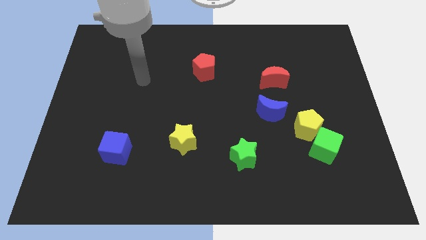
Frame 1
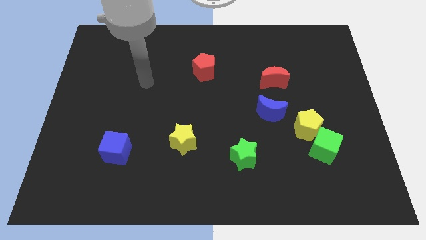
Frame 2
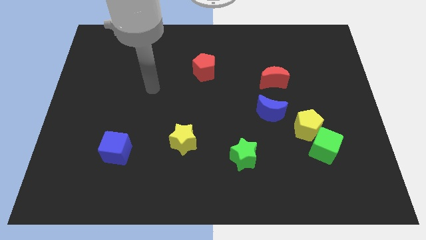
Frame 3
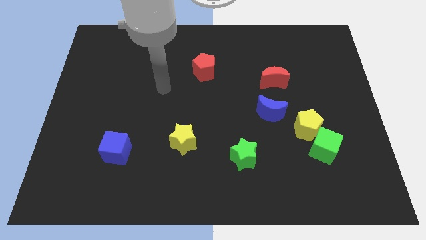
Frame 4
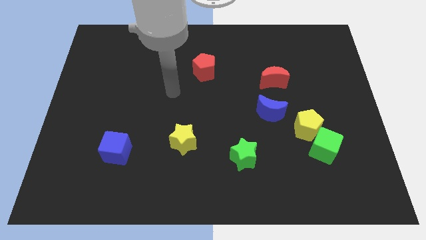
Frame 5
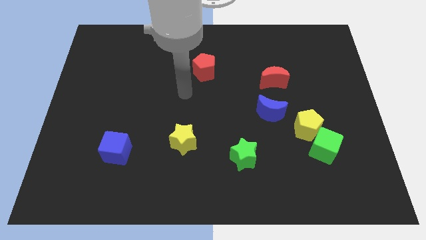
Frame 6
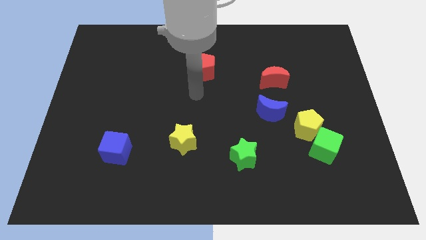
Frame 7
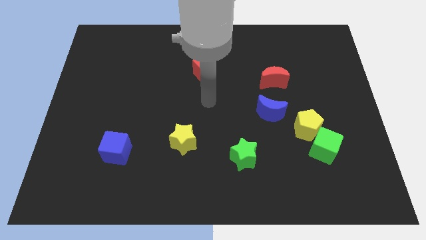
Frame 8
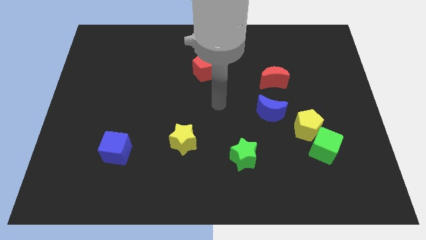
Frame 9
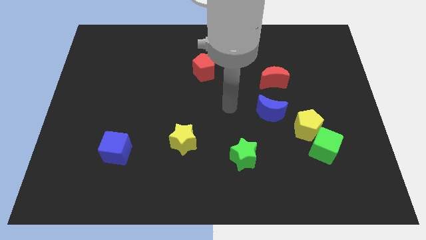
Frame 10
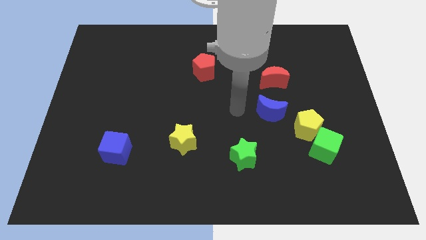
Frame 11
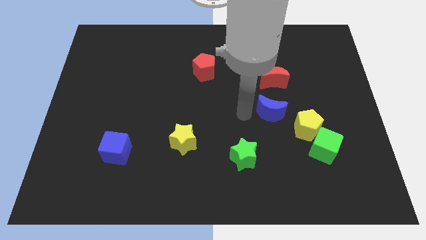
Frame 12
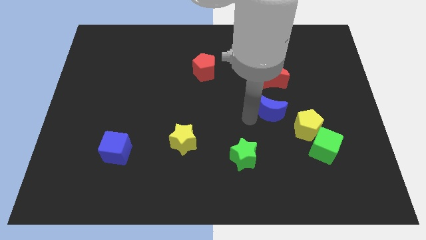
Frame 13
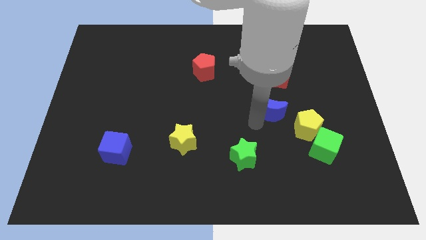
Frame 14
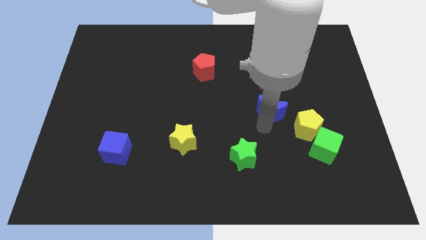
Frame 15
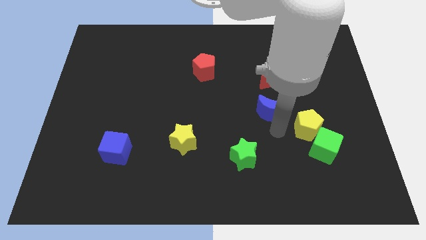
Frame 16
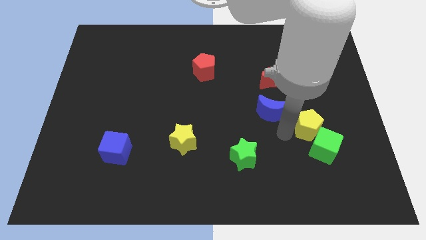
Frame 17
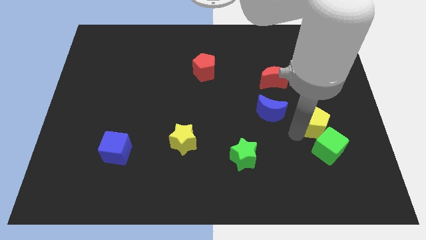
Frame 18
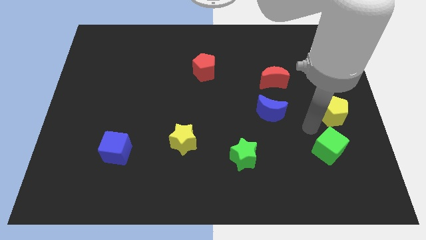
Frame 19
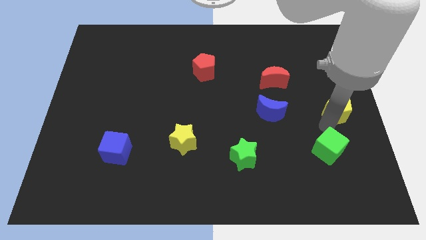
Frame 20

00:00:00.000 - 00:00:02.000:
move the green cube away from the yellow pentagon

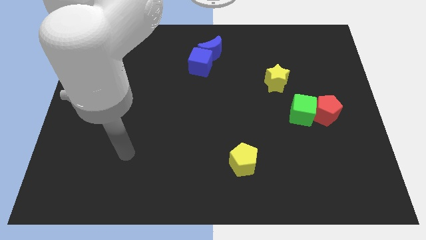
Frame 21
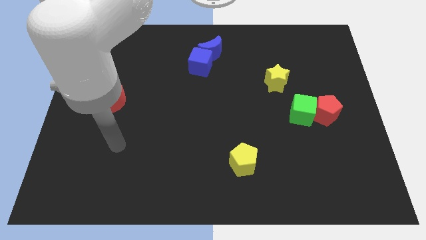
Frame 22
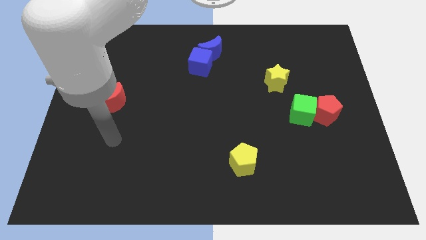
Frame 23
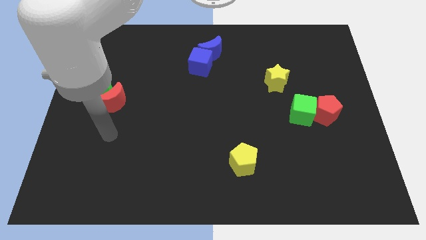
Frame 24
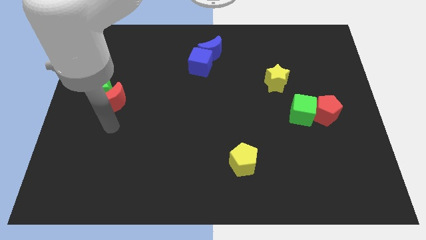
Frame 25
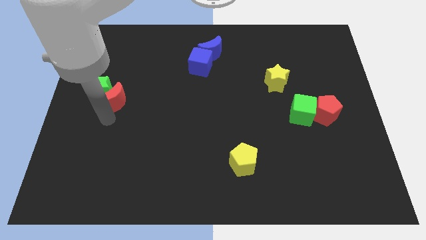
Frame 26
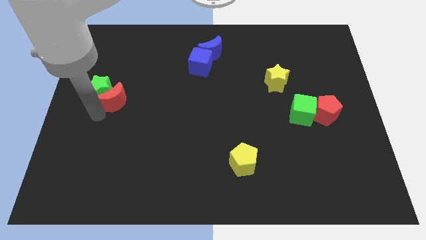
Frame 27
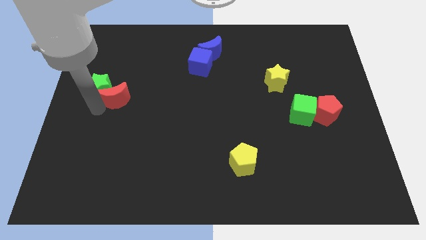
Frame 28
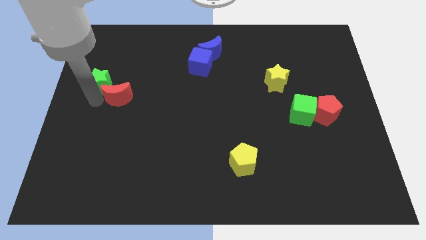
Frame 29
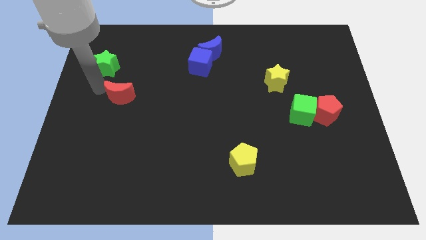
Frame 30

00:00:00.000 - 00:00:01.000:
pull the red moon apart from the green star

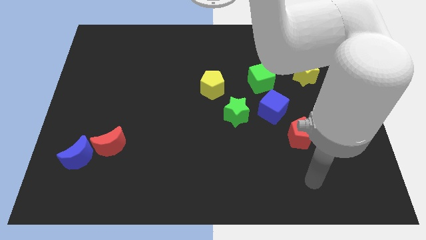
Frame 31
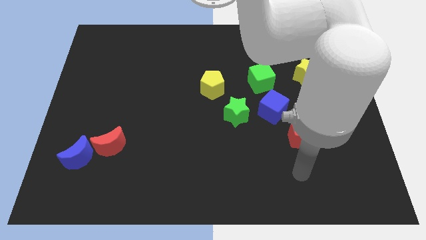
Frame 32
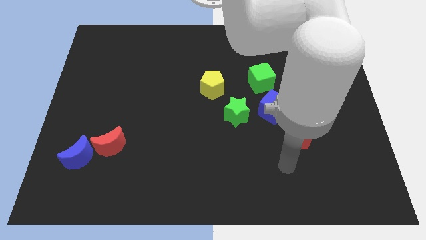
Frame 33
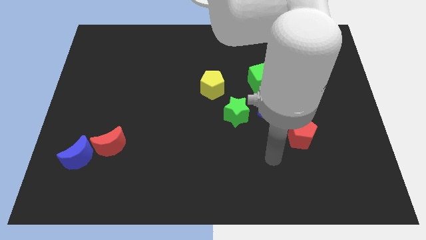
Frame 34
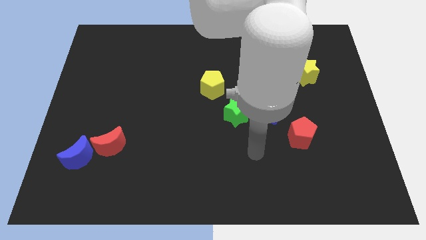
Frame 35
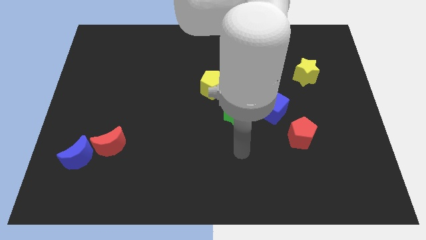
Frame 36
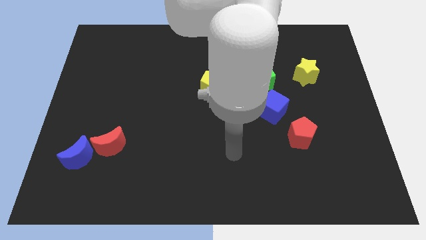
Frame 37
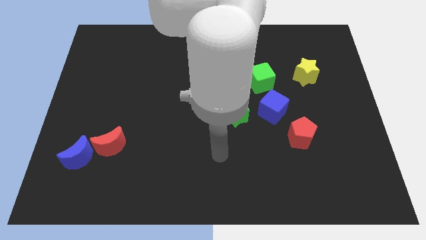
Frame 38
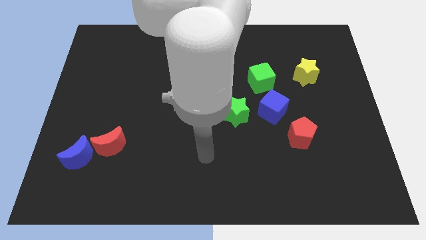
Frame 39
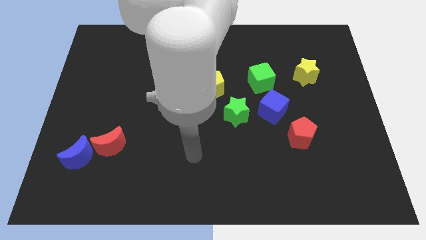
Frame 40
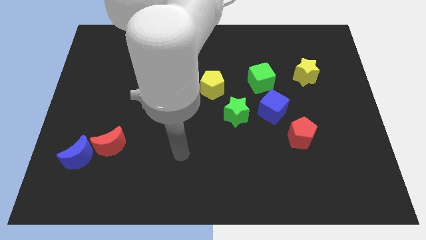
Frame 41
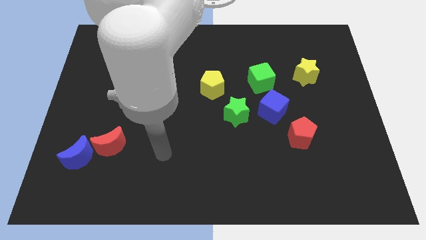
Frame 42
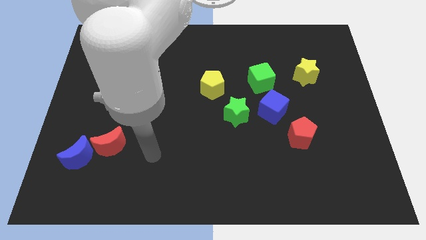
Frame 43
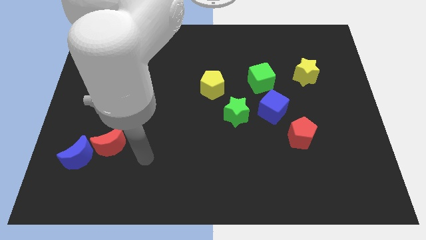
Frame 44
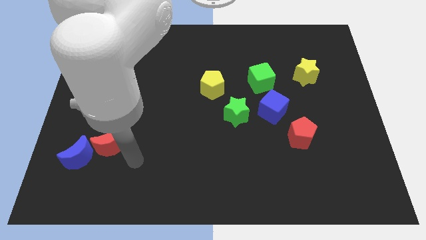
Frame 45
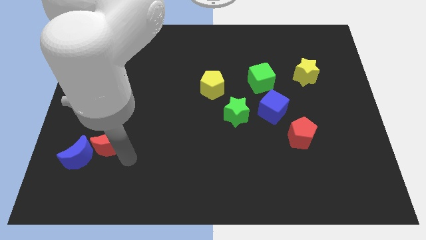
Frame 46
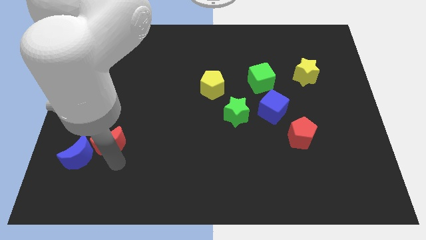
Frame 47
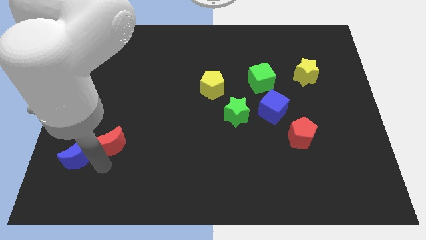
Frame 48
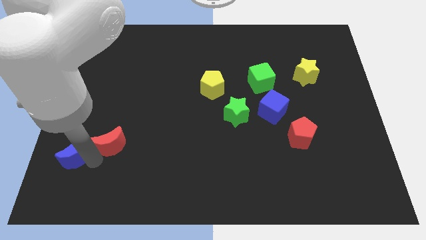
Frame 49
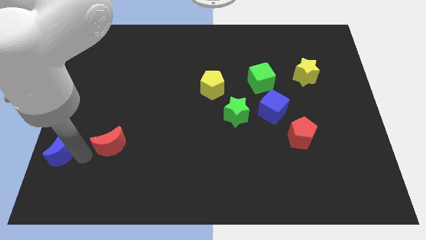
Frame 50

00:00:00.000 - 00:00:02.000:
separate the red moon from the blue moon

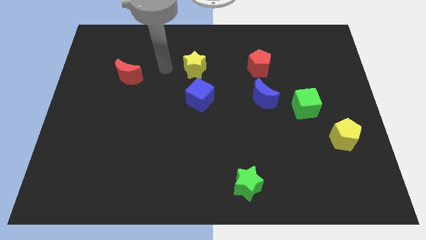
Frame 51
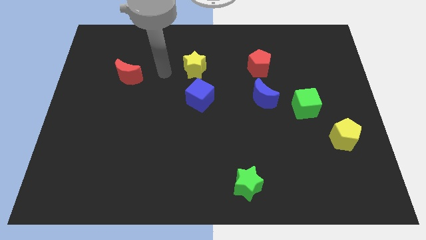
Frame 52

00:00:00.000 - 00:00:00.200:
move the blue moon away from the green cube

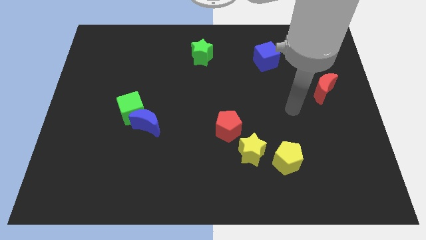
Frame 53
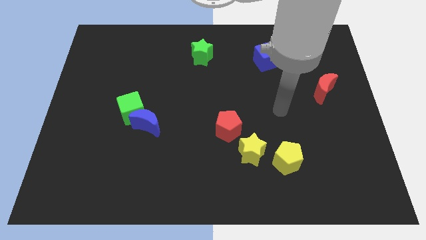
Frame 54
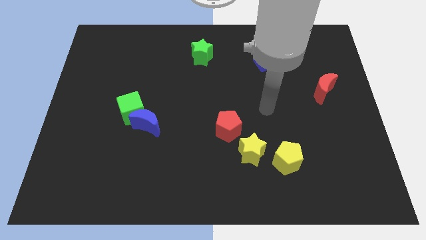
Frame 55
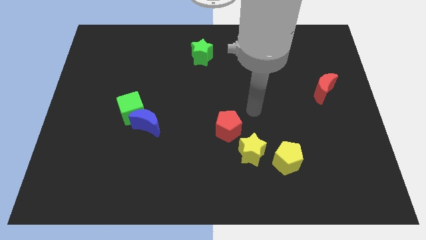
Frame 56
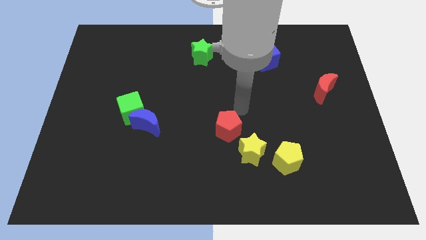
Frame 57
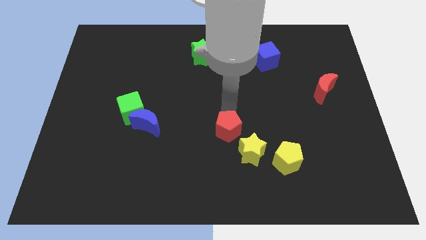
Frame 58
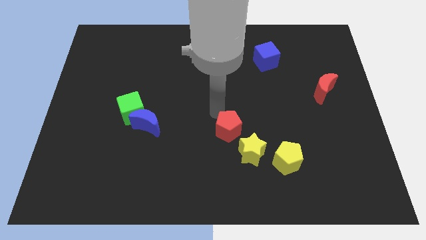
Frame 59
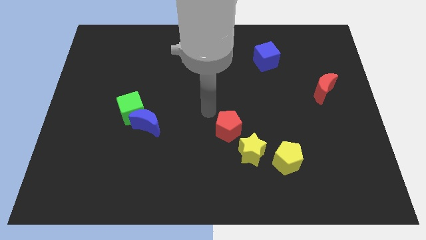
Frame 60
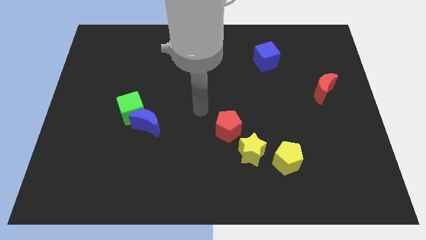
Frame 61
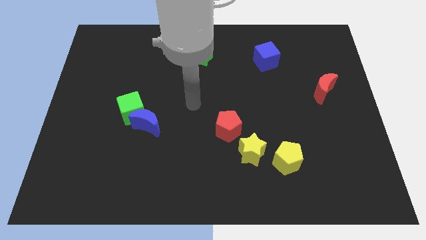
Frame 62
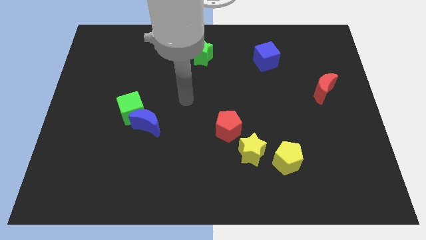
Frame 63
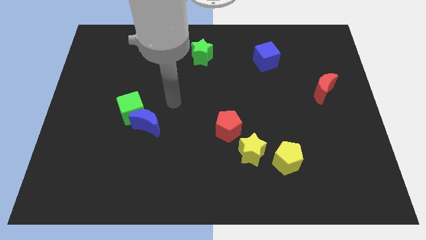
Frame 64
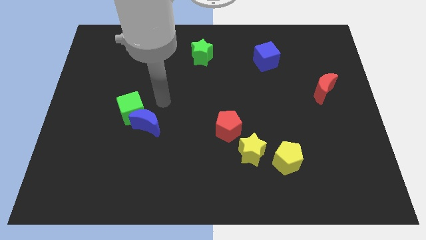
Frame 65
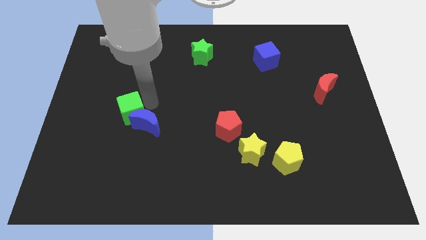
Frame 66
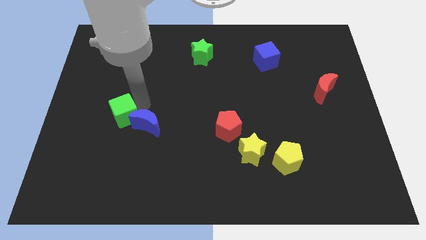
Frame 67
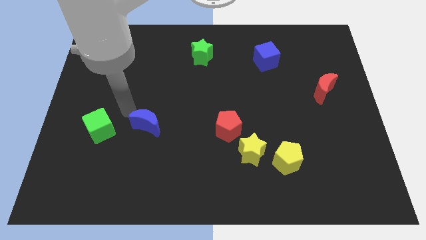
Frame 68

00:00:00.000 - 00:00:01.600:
separate the blue moon from the green cube

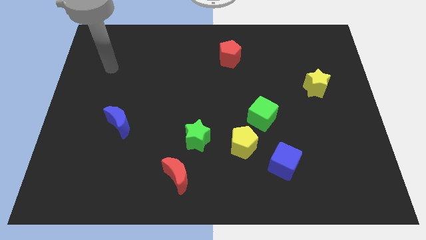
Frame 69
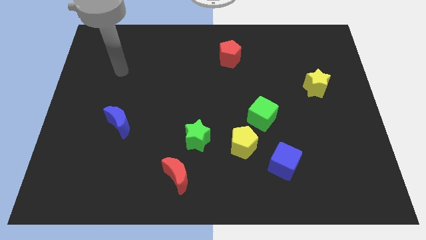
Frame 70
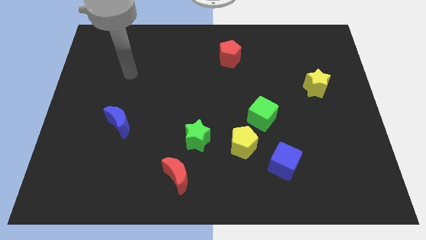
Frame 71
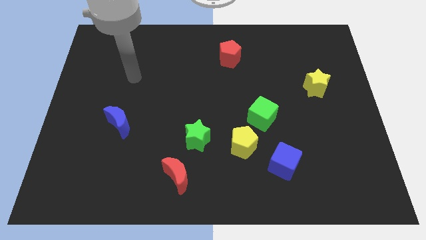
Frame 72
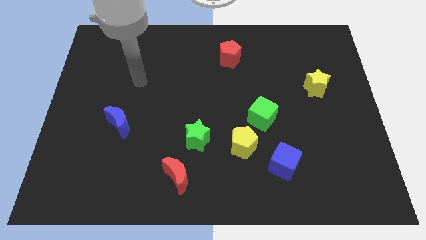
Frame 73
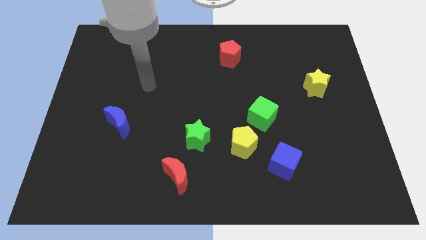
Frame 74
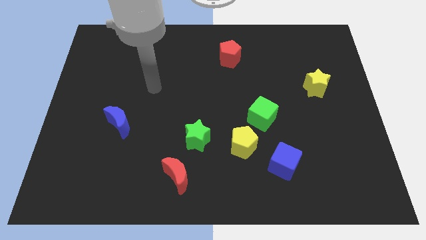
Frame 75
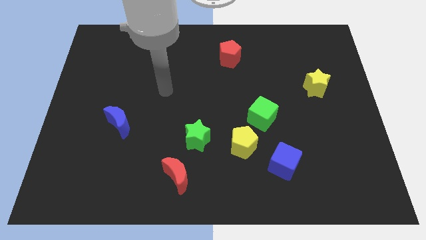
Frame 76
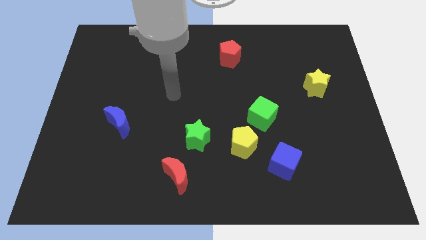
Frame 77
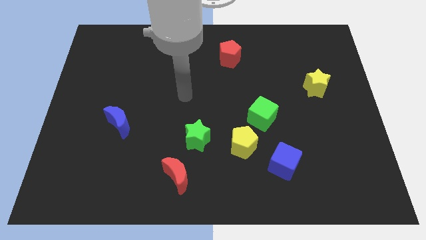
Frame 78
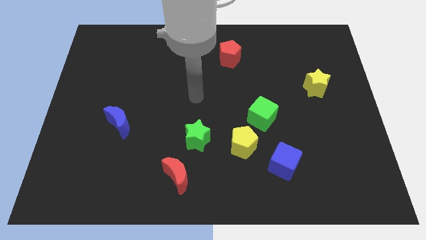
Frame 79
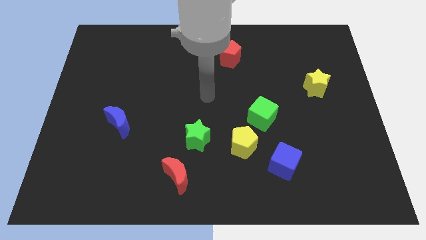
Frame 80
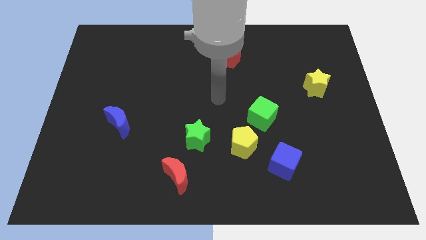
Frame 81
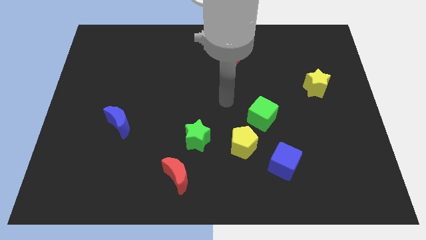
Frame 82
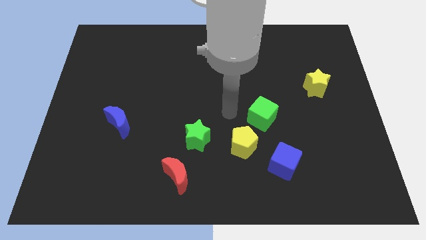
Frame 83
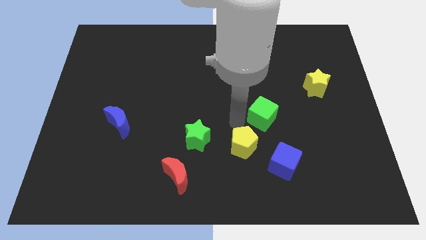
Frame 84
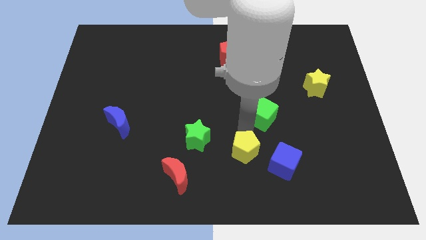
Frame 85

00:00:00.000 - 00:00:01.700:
pull the green cube apart from the yellow pentagon

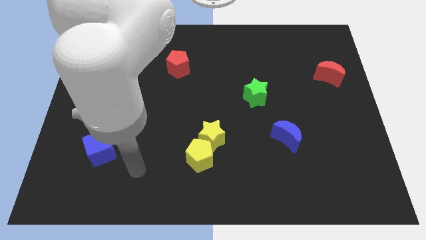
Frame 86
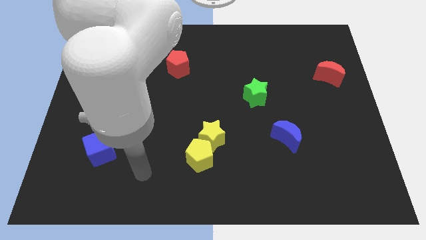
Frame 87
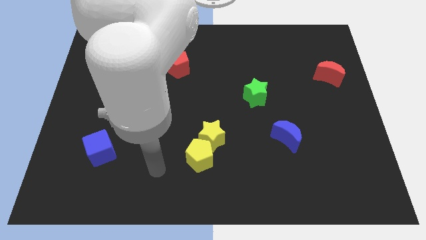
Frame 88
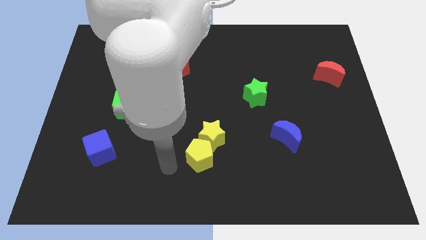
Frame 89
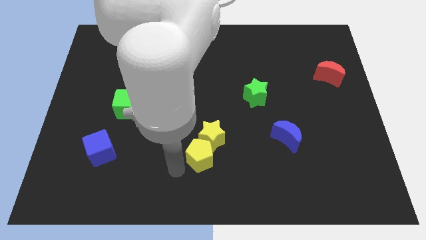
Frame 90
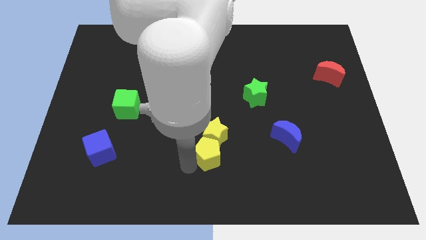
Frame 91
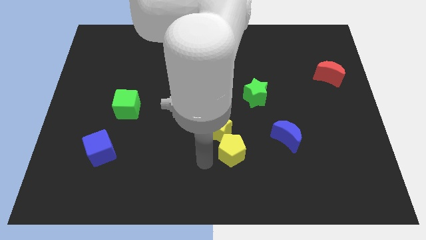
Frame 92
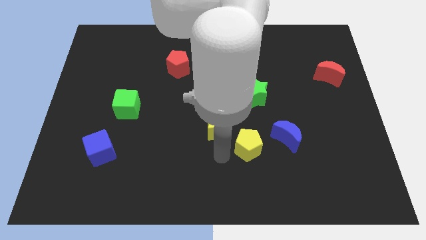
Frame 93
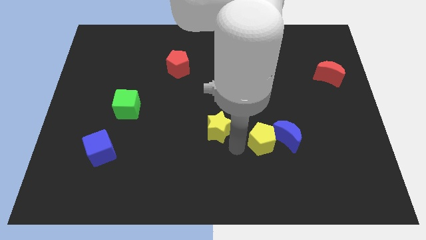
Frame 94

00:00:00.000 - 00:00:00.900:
separate the yellow star from the yellow pentagon
